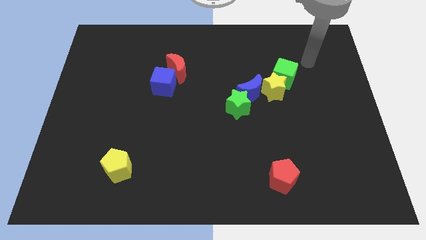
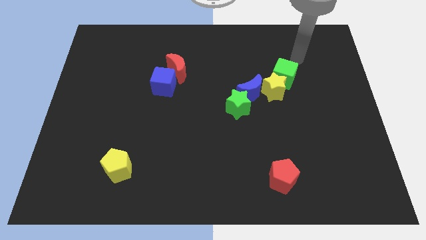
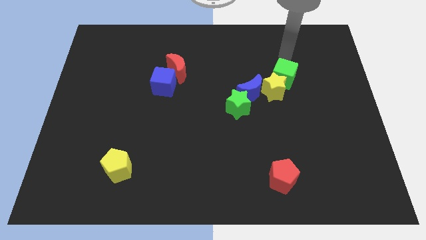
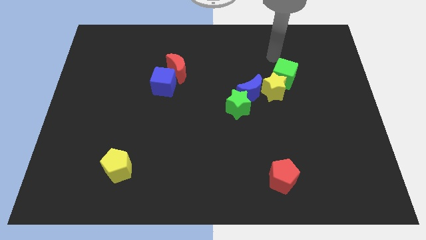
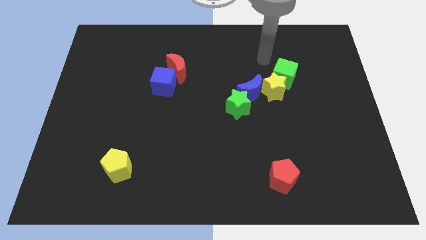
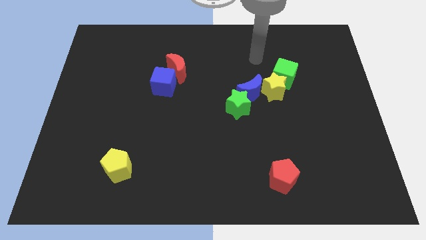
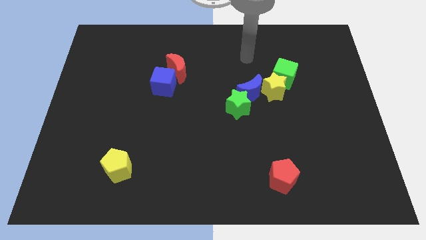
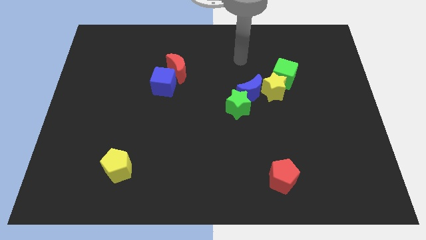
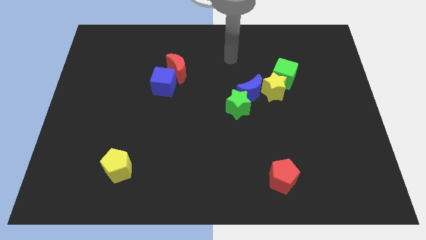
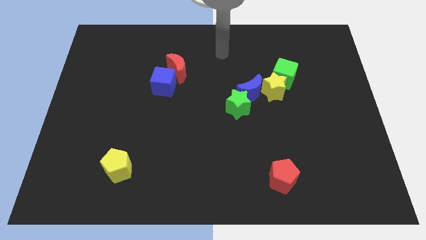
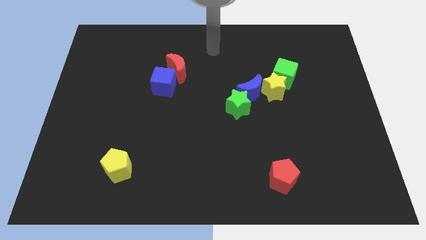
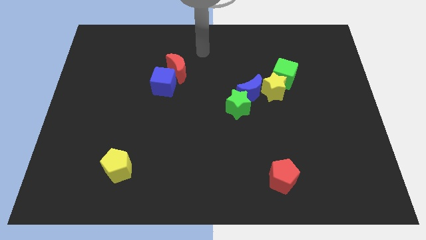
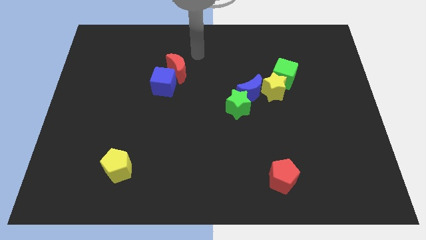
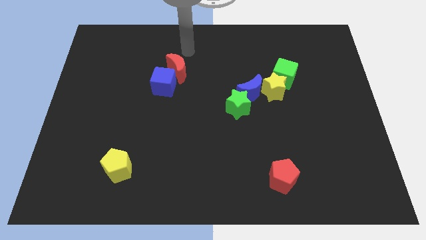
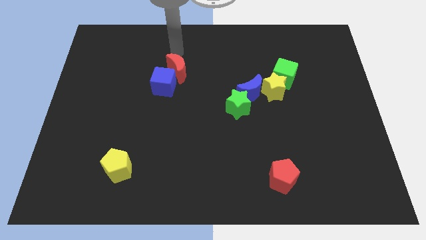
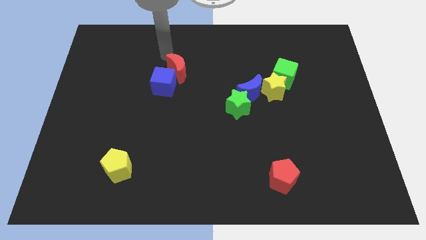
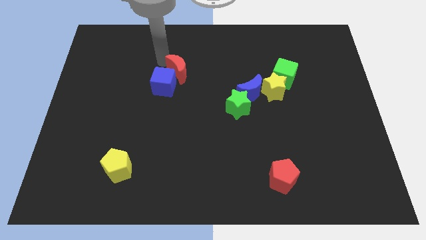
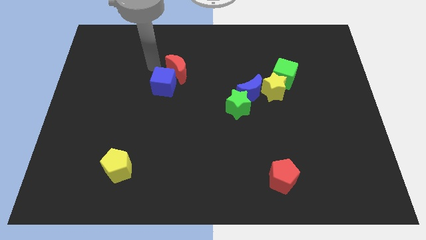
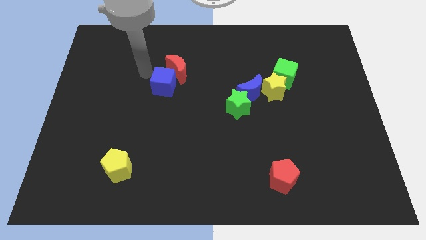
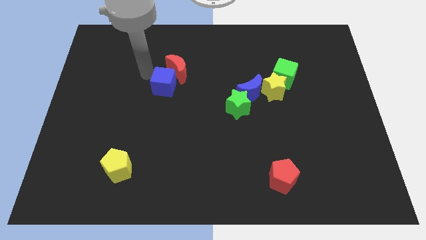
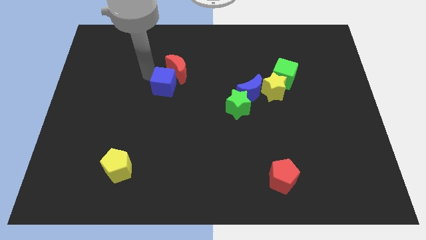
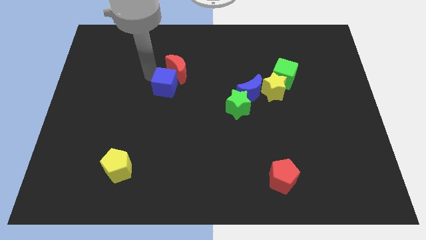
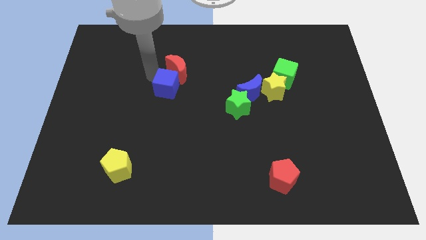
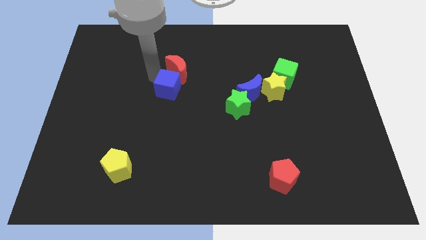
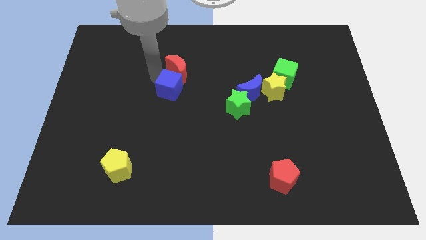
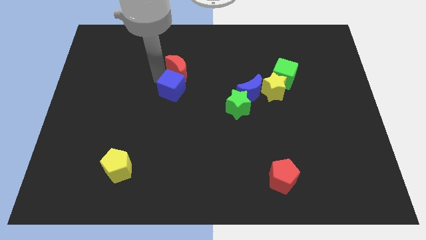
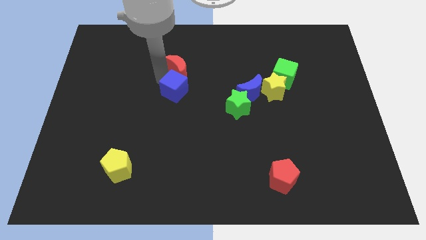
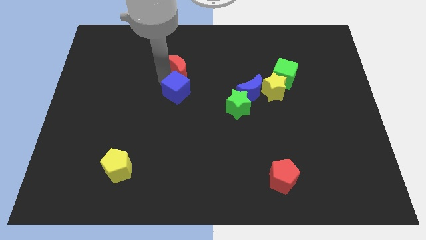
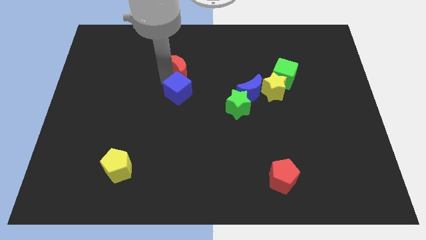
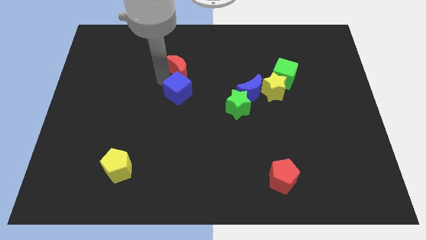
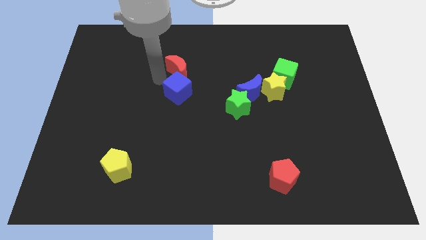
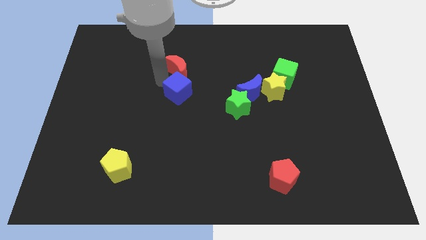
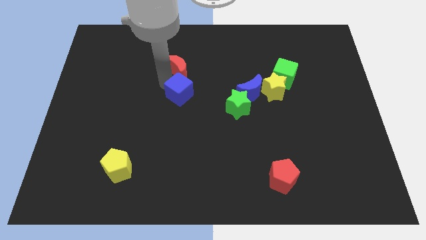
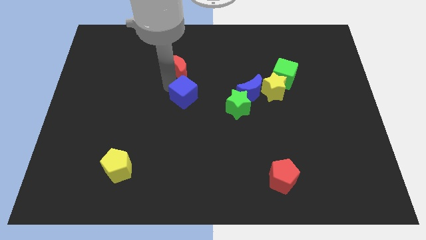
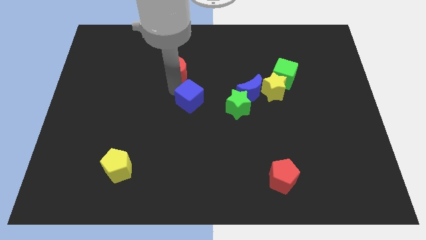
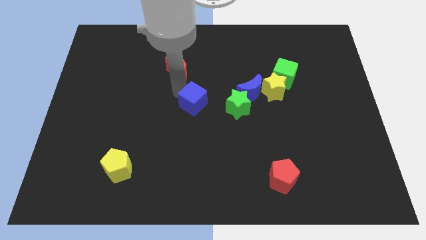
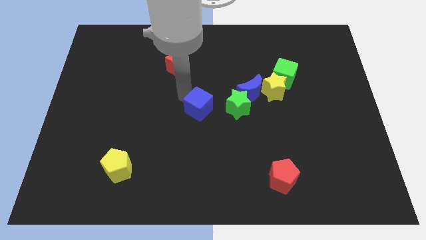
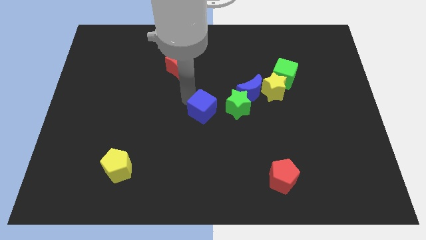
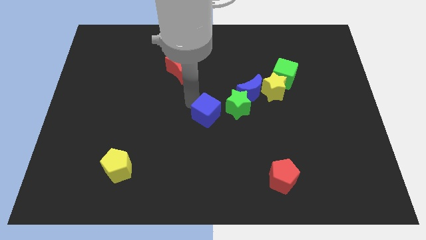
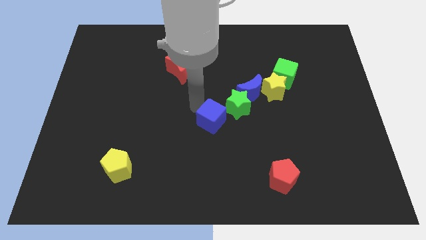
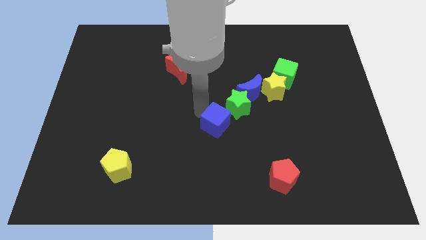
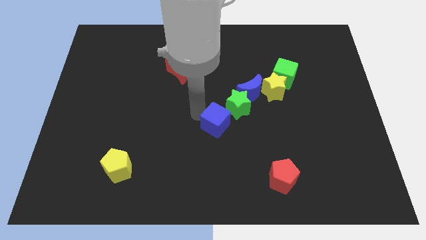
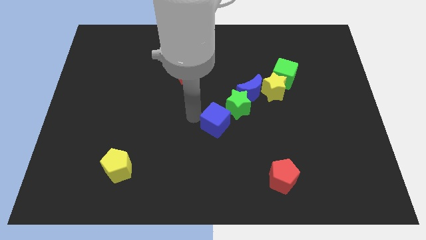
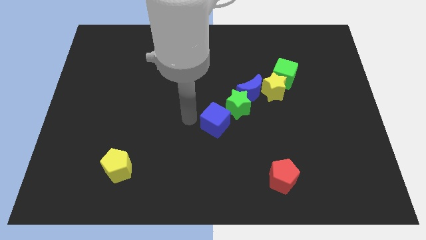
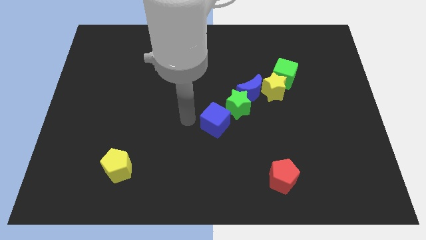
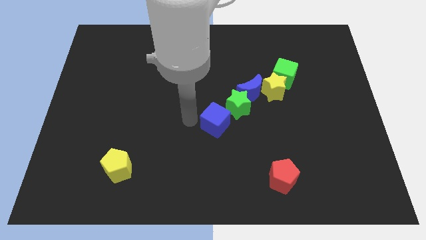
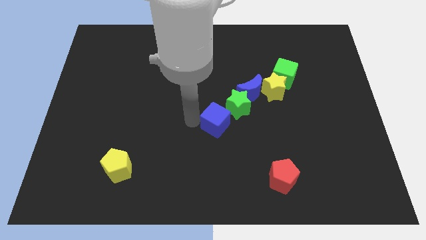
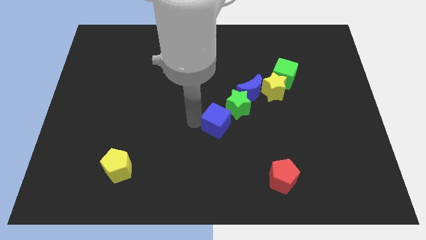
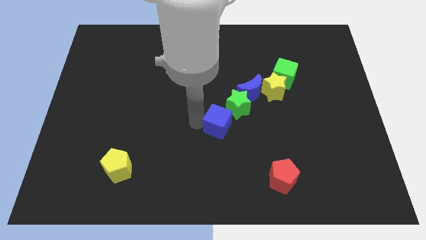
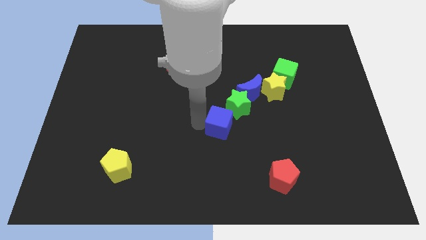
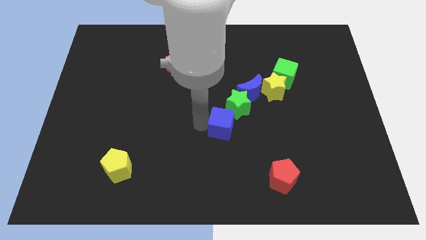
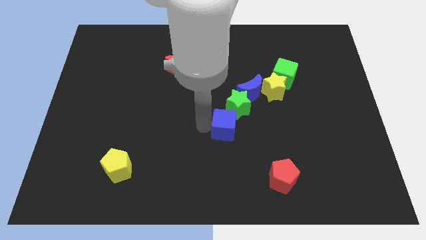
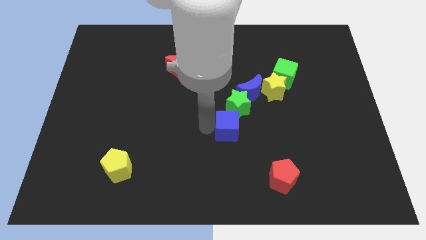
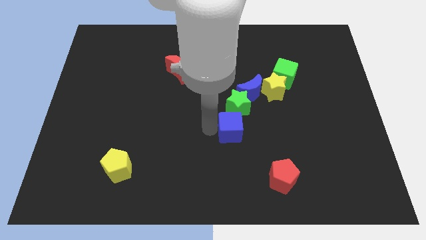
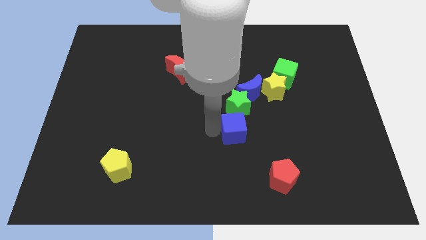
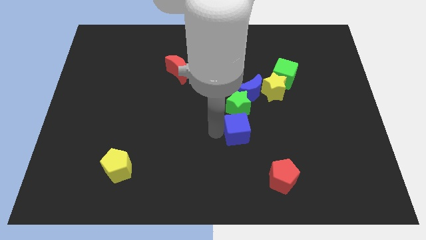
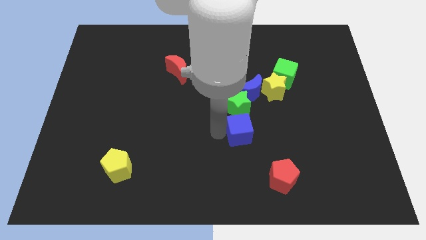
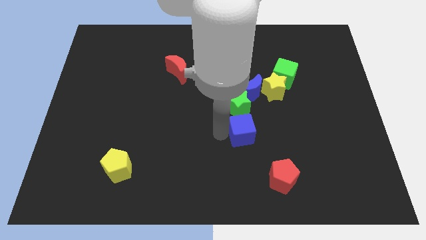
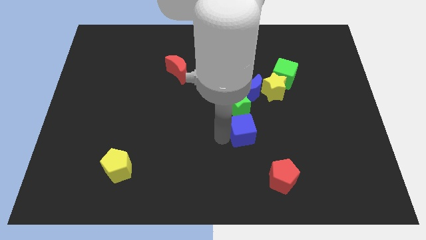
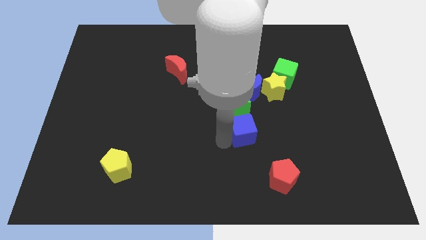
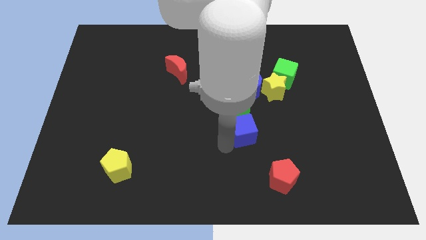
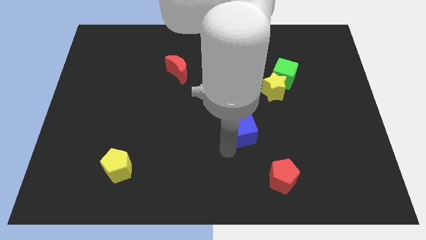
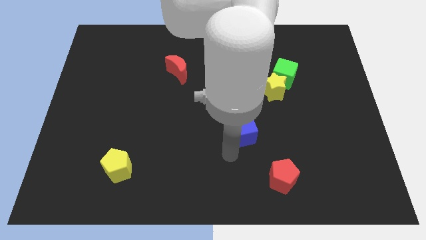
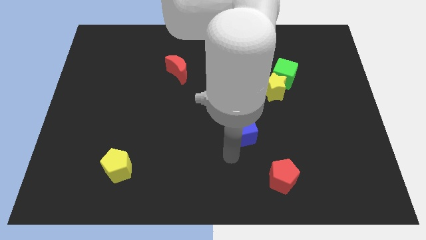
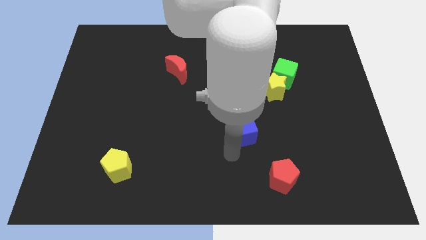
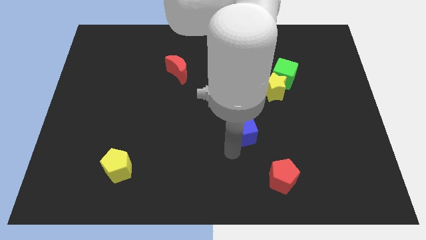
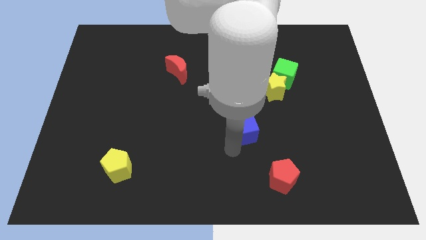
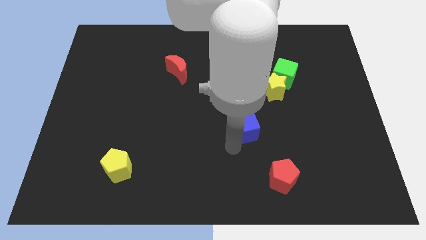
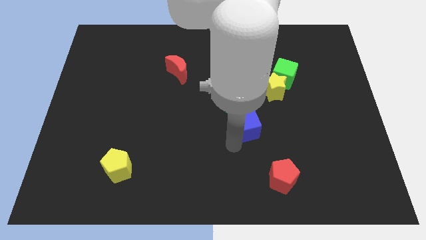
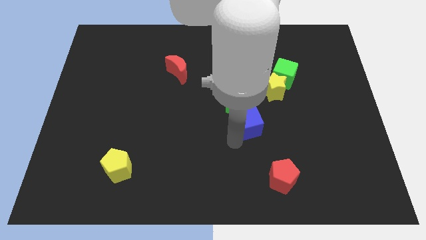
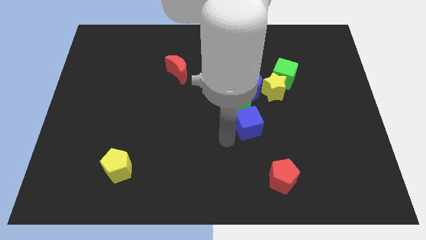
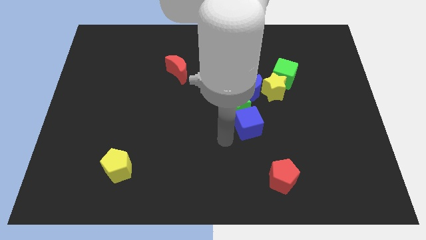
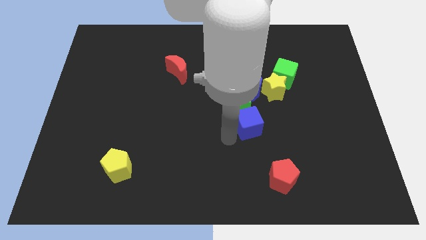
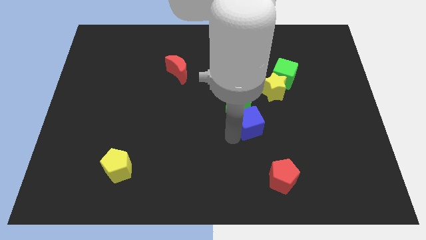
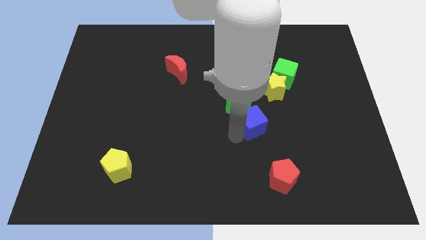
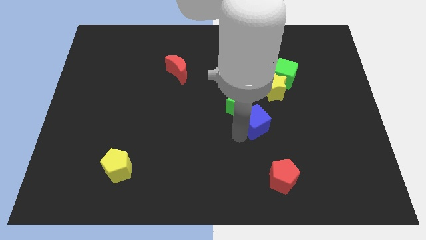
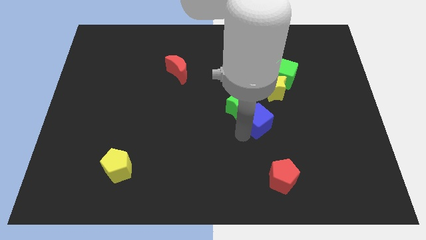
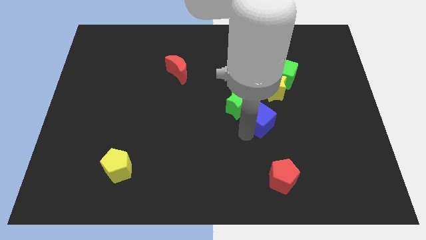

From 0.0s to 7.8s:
slide the blue cube to the bottom right side of the blue moon
